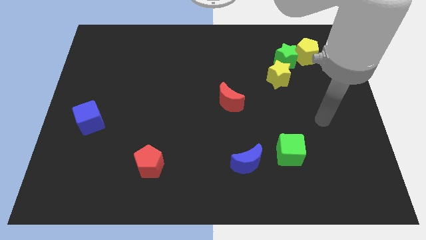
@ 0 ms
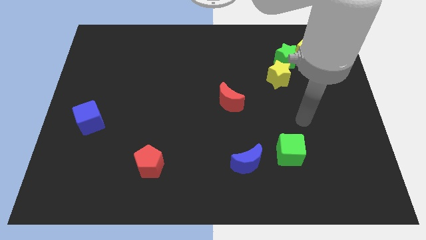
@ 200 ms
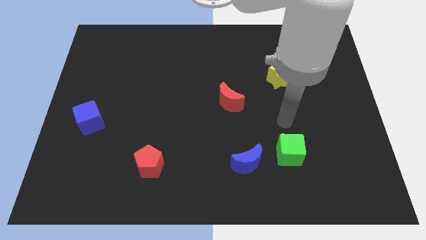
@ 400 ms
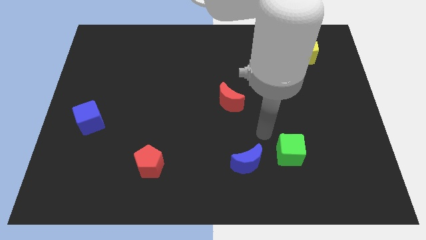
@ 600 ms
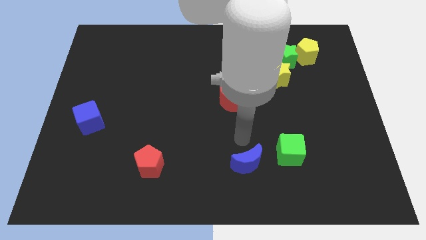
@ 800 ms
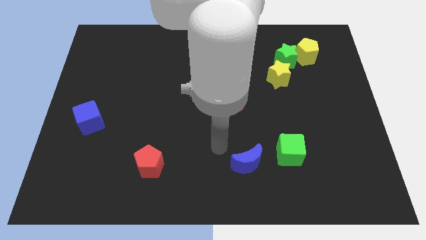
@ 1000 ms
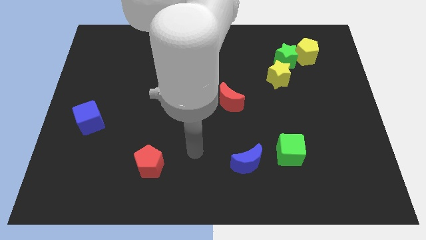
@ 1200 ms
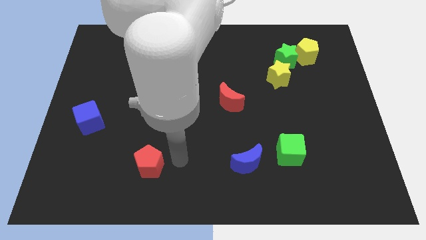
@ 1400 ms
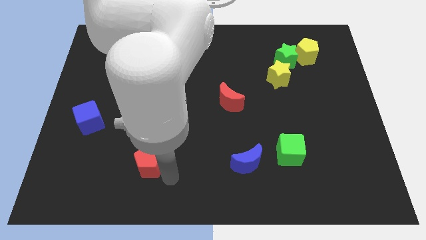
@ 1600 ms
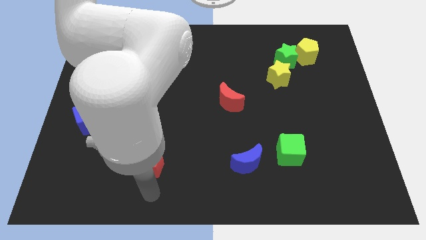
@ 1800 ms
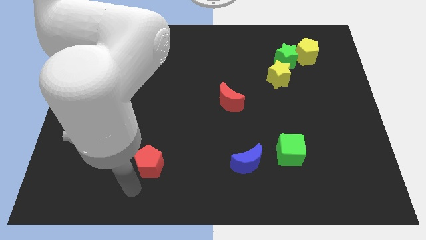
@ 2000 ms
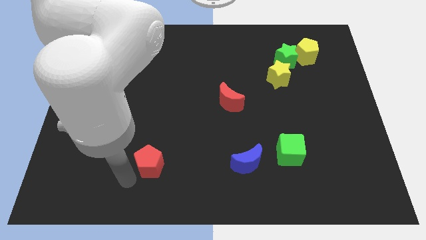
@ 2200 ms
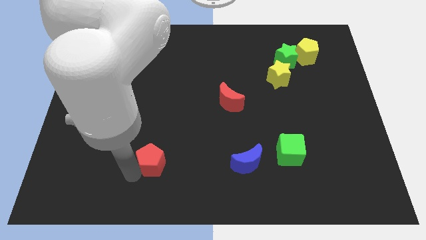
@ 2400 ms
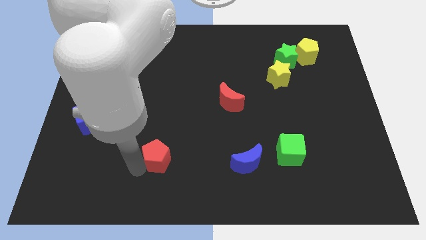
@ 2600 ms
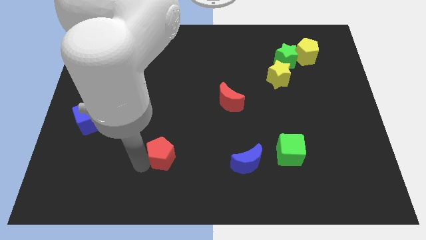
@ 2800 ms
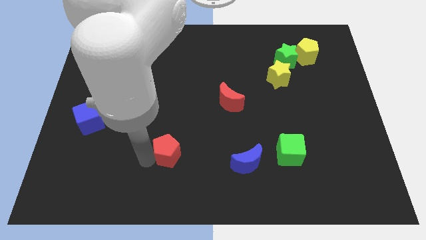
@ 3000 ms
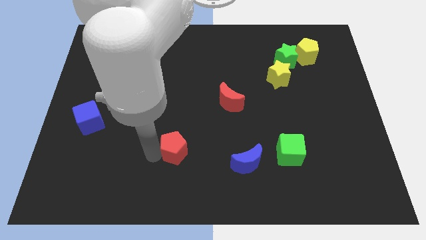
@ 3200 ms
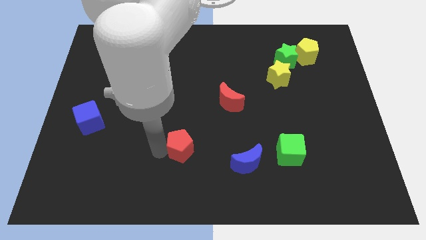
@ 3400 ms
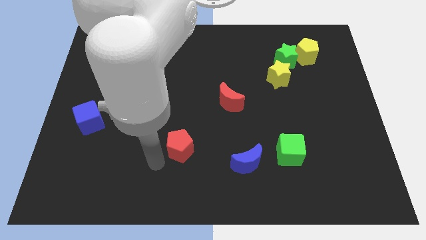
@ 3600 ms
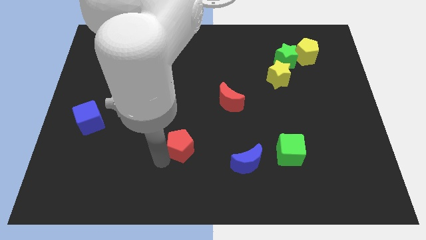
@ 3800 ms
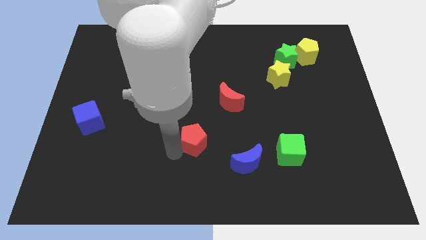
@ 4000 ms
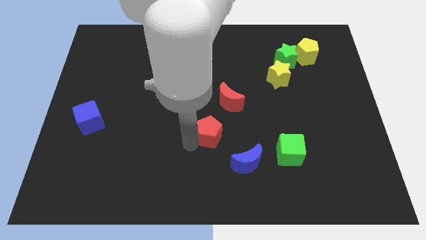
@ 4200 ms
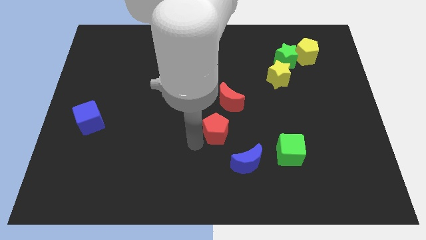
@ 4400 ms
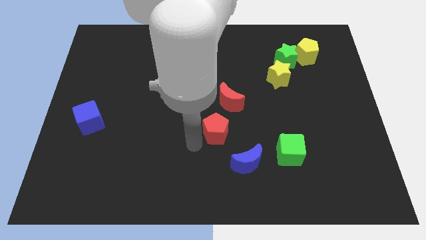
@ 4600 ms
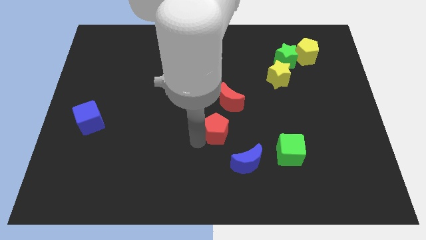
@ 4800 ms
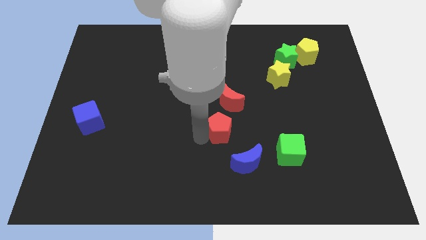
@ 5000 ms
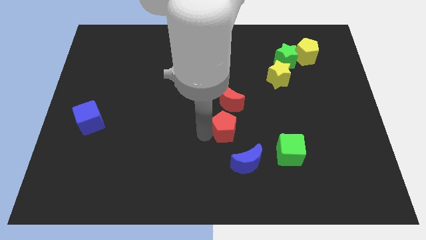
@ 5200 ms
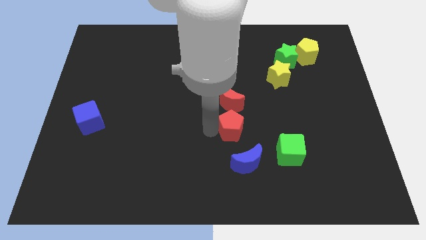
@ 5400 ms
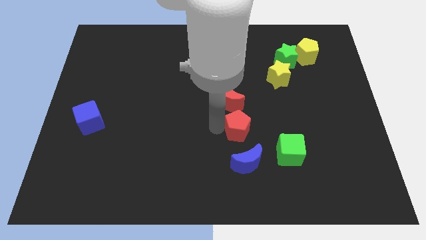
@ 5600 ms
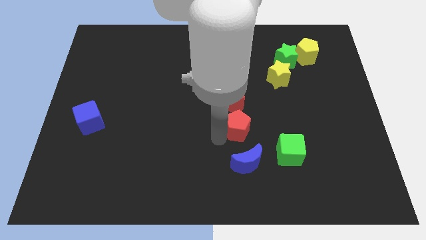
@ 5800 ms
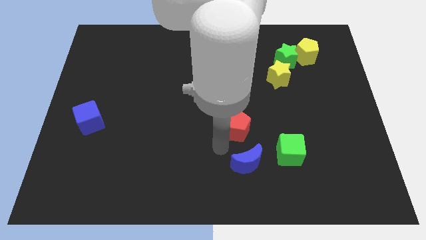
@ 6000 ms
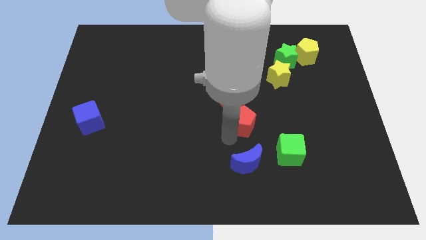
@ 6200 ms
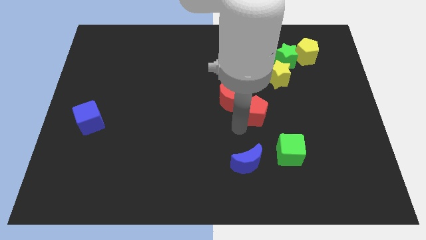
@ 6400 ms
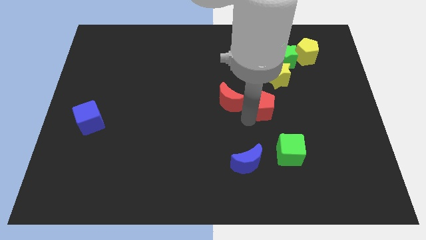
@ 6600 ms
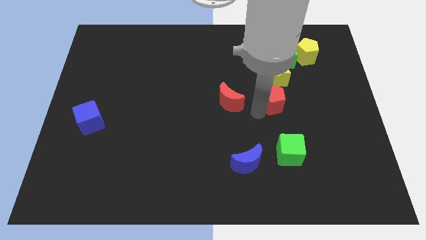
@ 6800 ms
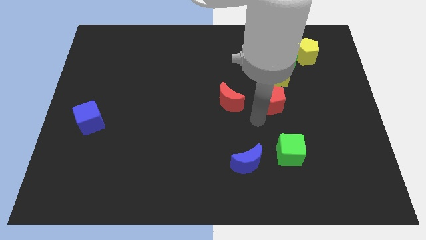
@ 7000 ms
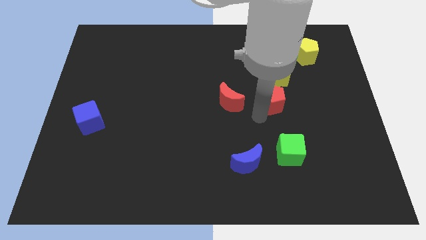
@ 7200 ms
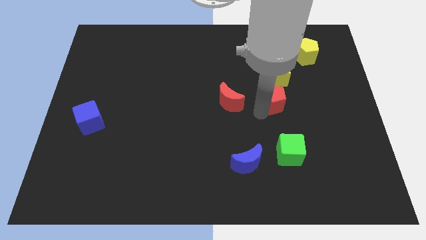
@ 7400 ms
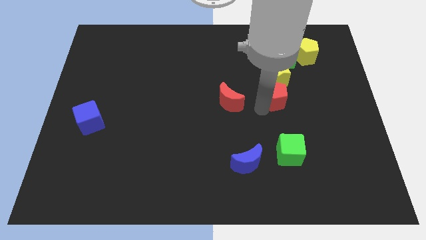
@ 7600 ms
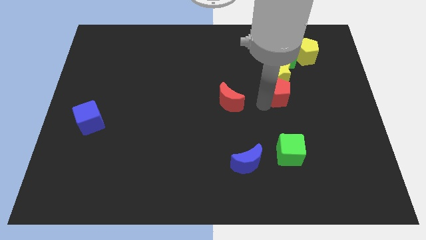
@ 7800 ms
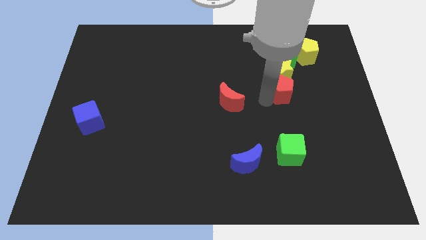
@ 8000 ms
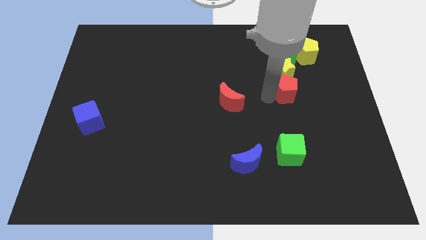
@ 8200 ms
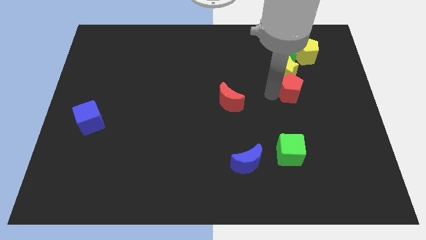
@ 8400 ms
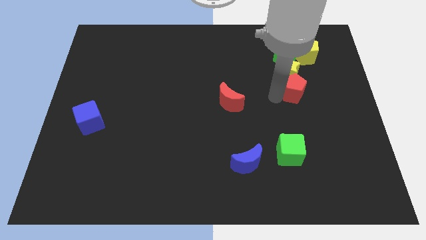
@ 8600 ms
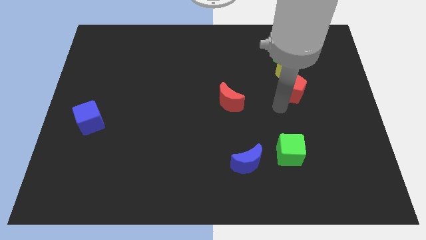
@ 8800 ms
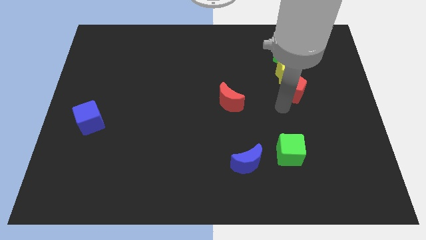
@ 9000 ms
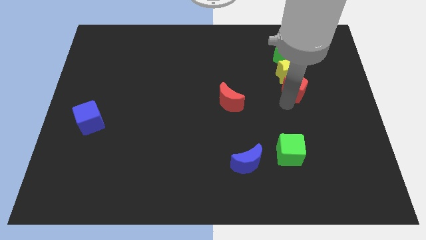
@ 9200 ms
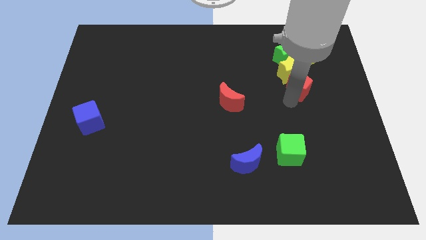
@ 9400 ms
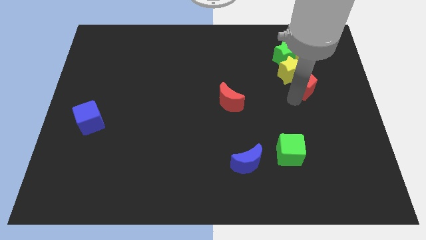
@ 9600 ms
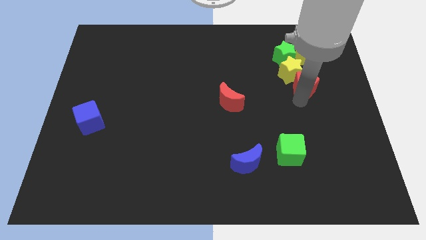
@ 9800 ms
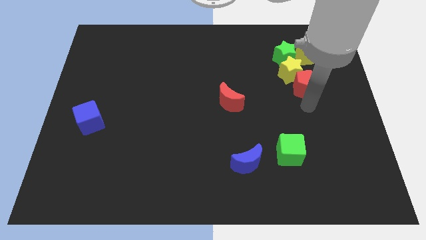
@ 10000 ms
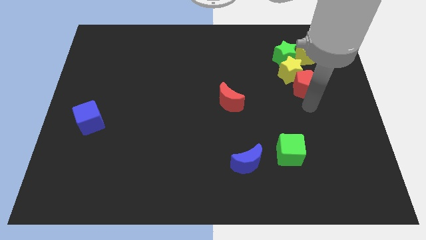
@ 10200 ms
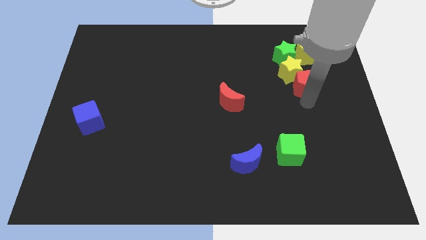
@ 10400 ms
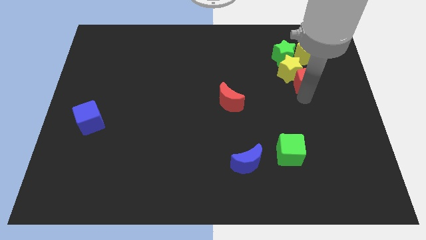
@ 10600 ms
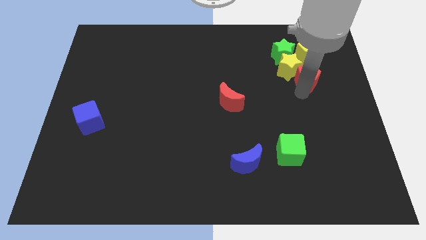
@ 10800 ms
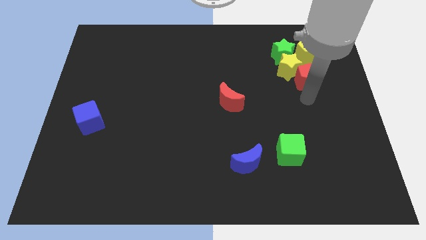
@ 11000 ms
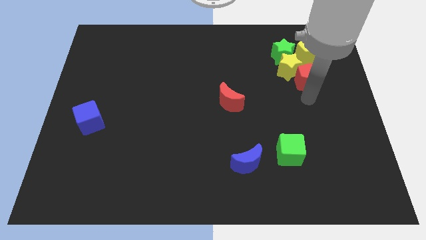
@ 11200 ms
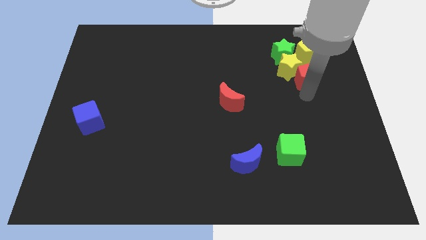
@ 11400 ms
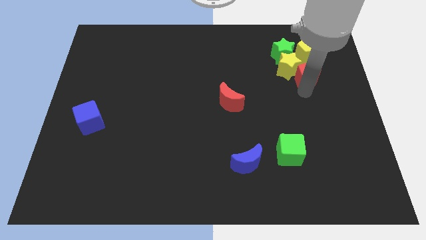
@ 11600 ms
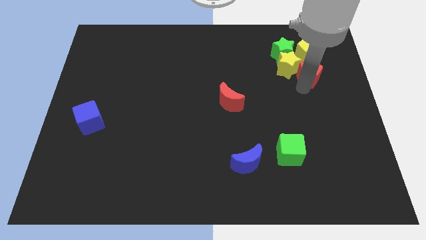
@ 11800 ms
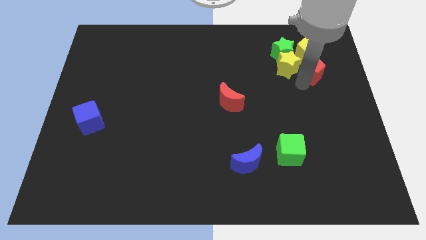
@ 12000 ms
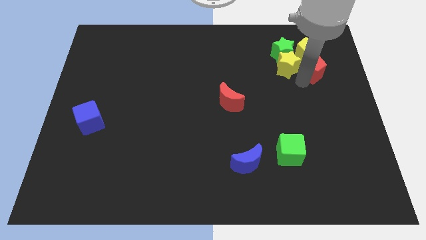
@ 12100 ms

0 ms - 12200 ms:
push the red pentagon next to the yellow pentagon

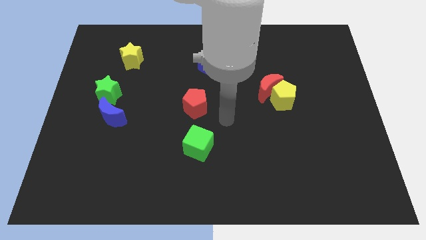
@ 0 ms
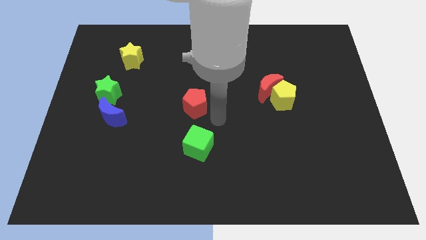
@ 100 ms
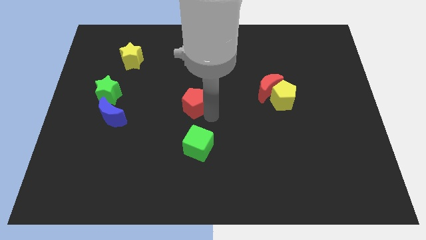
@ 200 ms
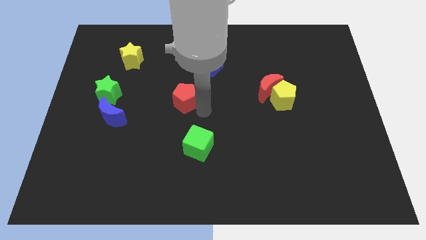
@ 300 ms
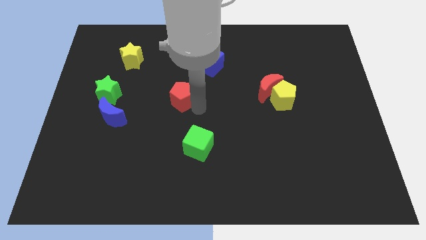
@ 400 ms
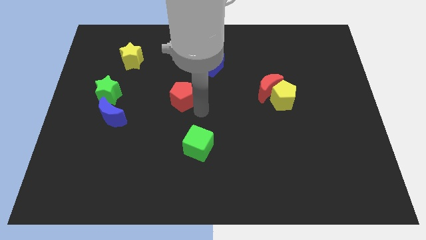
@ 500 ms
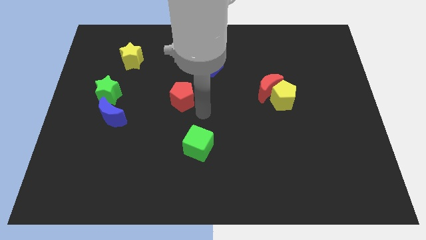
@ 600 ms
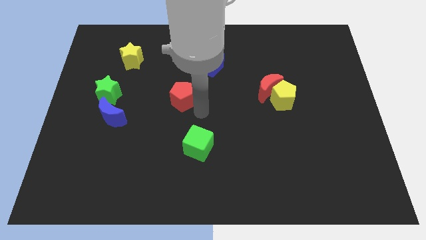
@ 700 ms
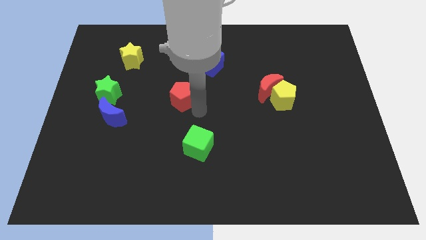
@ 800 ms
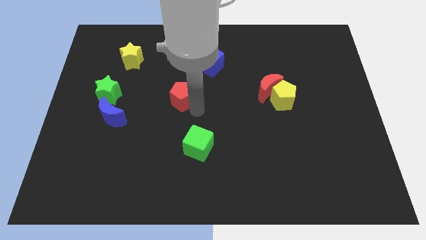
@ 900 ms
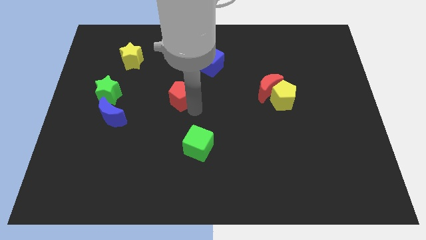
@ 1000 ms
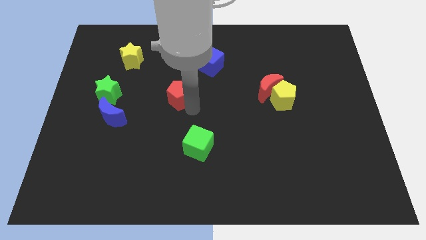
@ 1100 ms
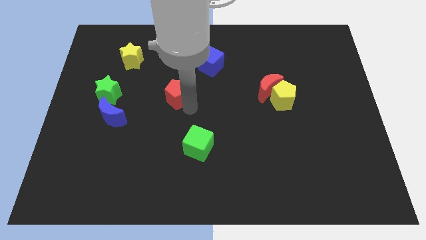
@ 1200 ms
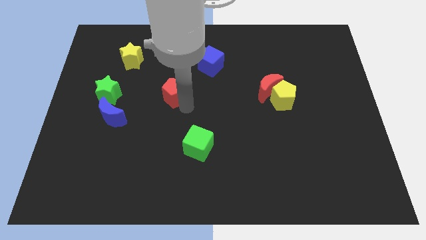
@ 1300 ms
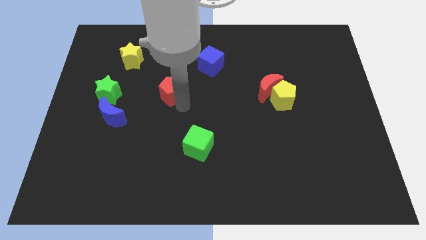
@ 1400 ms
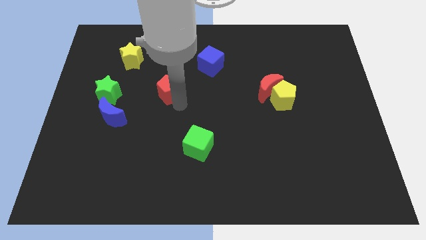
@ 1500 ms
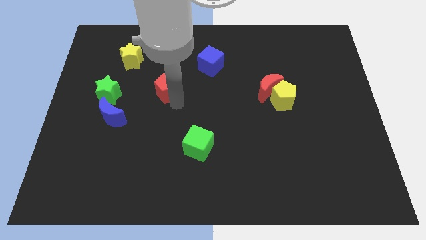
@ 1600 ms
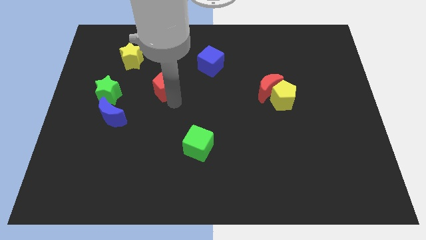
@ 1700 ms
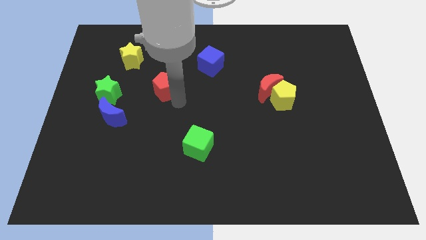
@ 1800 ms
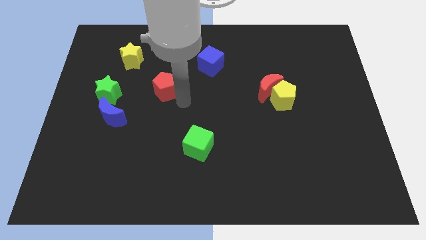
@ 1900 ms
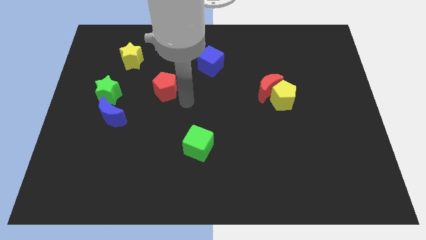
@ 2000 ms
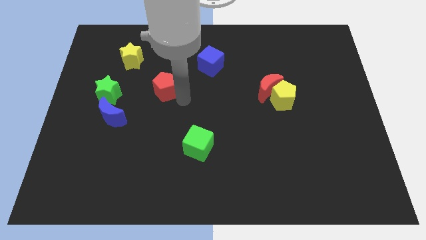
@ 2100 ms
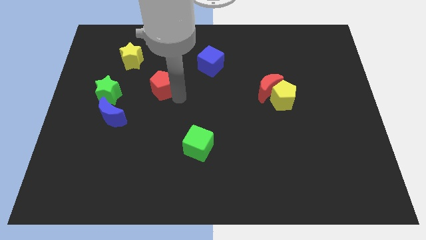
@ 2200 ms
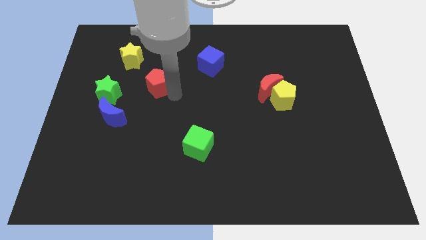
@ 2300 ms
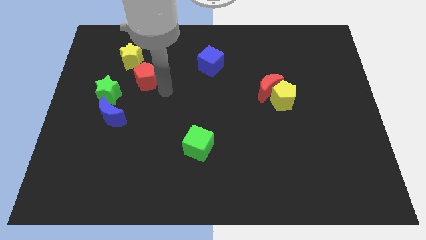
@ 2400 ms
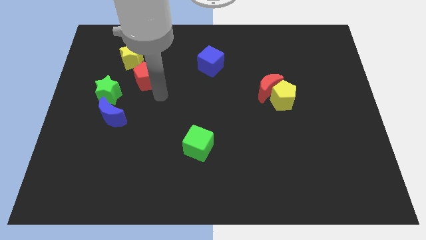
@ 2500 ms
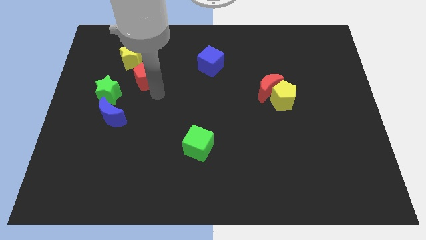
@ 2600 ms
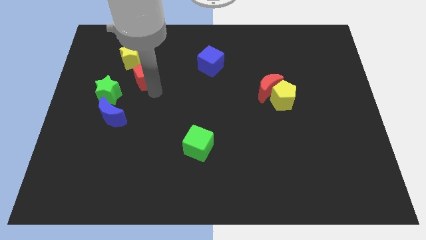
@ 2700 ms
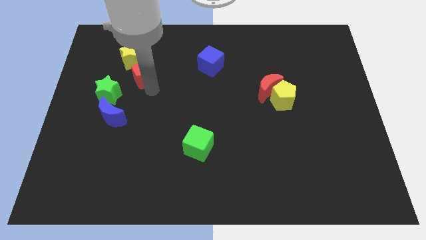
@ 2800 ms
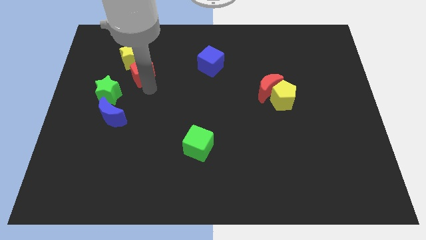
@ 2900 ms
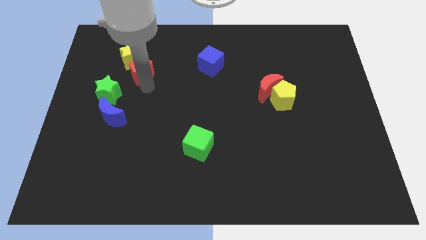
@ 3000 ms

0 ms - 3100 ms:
move the red pentagon towards the yellow star
